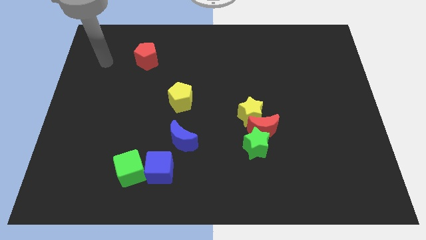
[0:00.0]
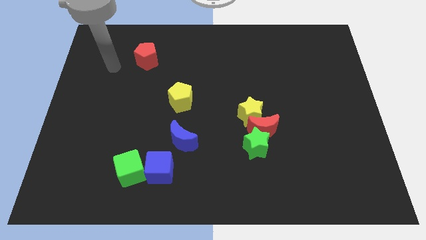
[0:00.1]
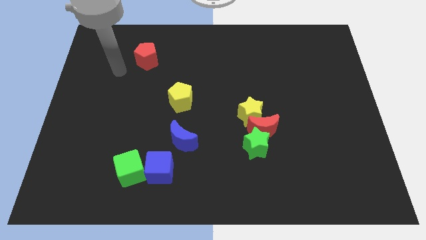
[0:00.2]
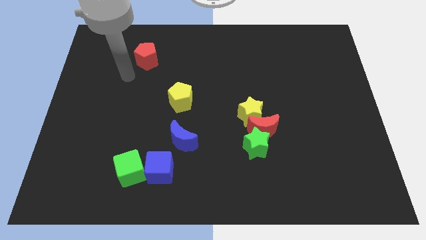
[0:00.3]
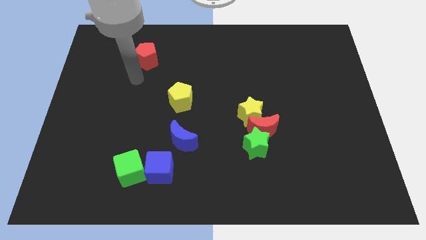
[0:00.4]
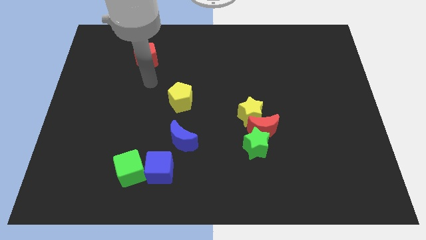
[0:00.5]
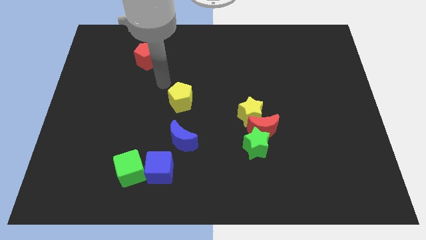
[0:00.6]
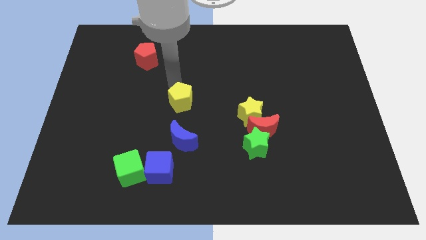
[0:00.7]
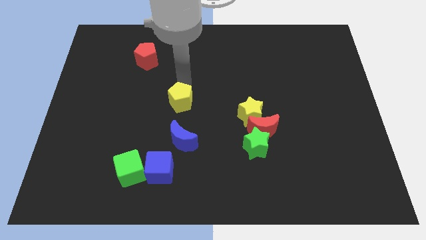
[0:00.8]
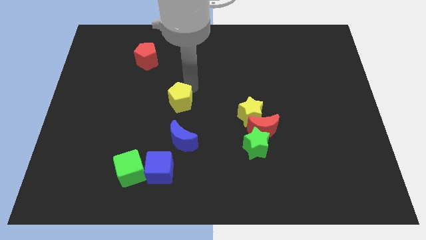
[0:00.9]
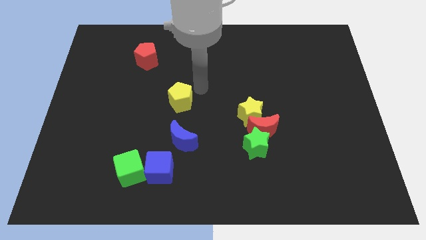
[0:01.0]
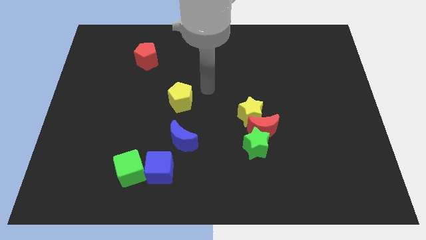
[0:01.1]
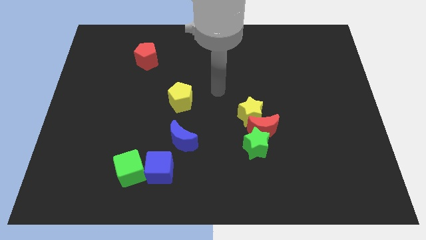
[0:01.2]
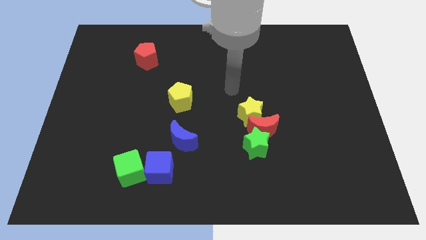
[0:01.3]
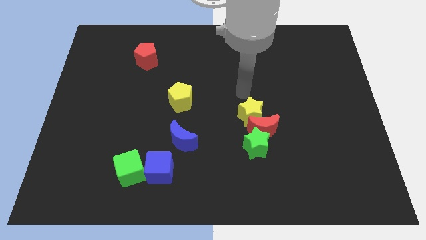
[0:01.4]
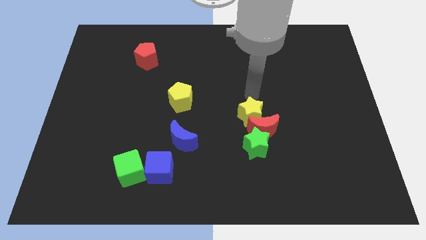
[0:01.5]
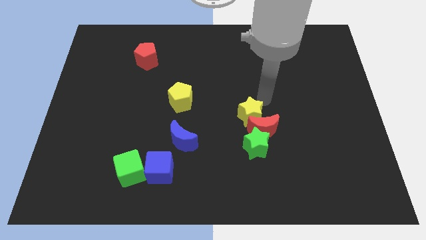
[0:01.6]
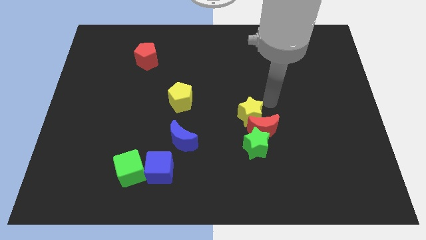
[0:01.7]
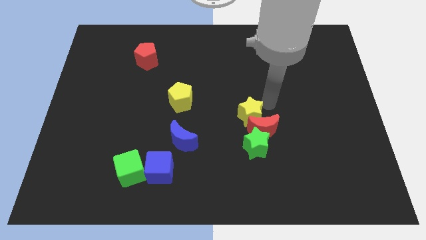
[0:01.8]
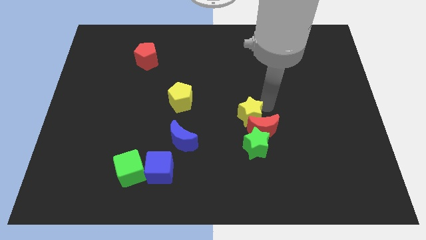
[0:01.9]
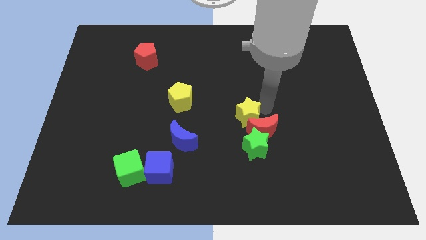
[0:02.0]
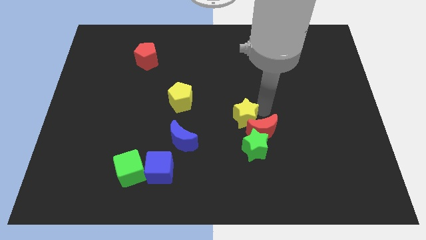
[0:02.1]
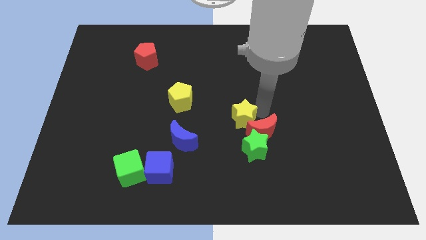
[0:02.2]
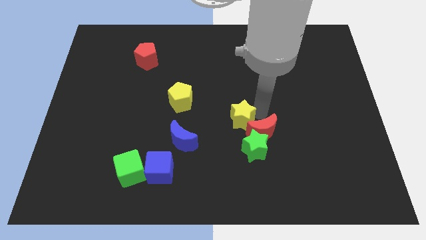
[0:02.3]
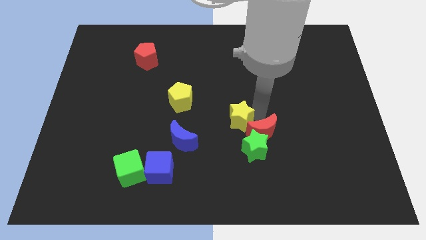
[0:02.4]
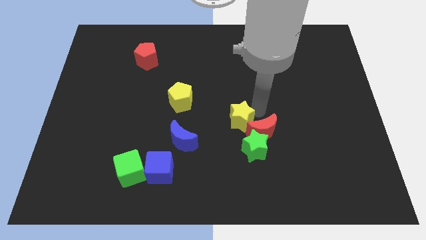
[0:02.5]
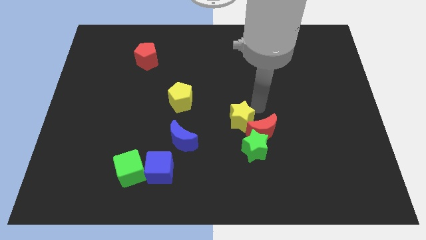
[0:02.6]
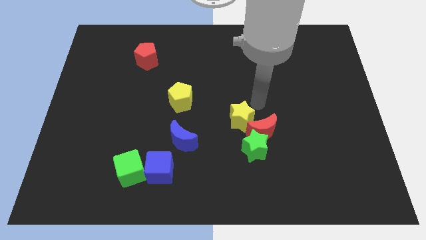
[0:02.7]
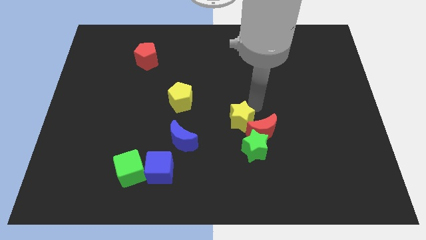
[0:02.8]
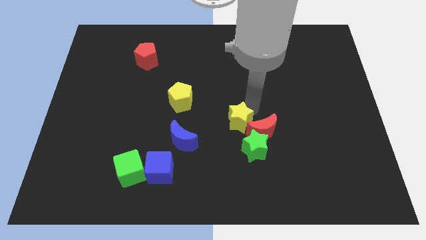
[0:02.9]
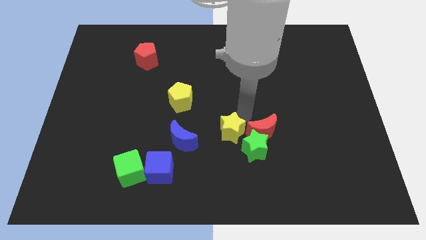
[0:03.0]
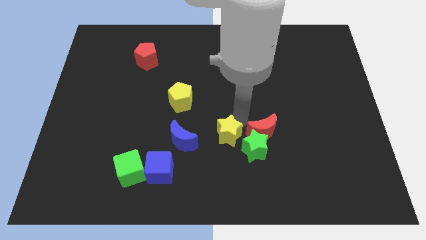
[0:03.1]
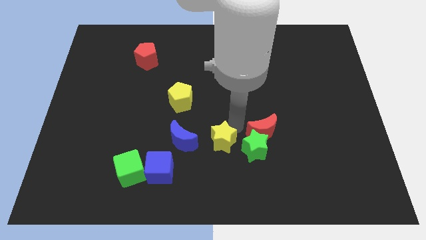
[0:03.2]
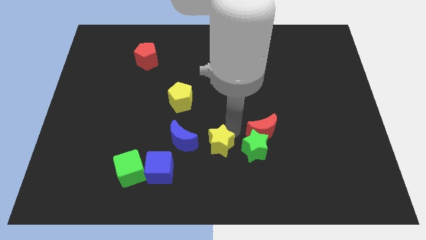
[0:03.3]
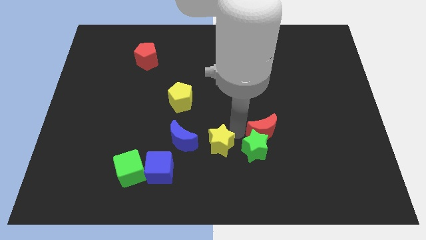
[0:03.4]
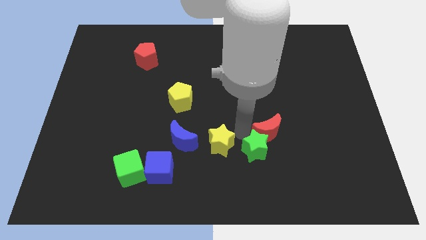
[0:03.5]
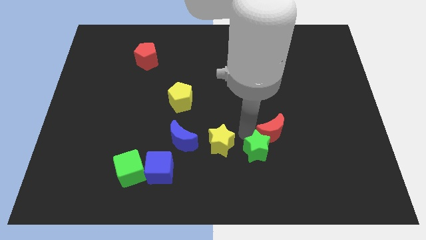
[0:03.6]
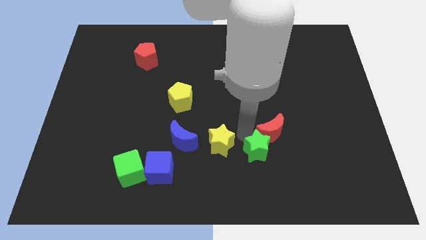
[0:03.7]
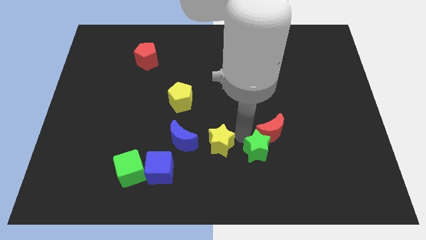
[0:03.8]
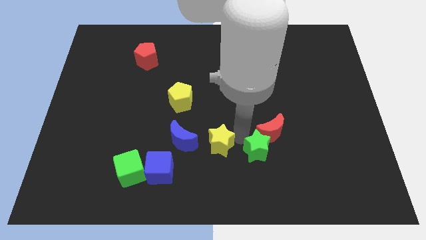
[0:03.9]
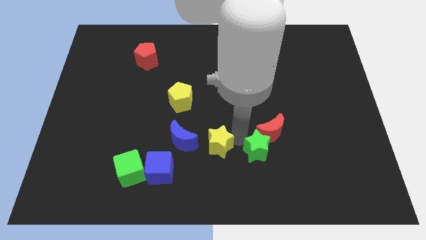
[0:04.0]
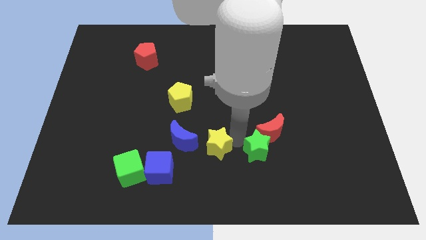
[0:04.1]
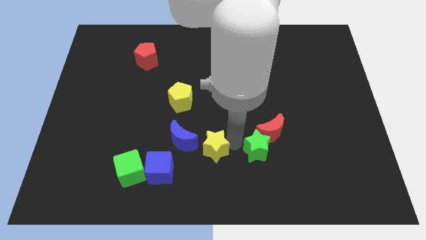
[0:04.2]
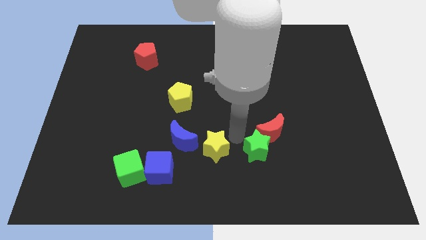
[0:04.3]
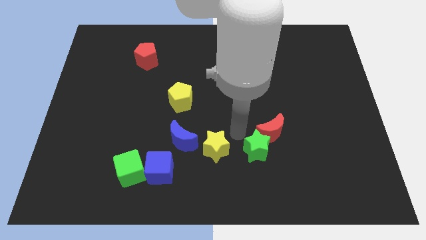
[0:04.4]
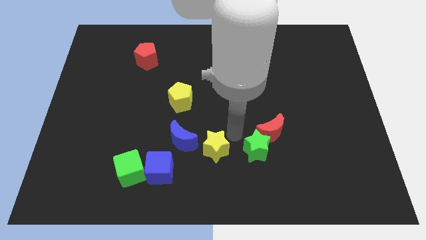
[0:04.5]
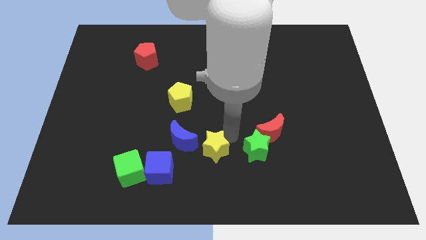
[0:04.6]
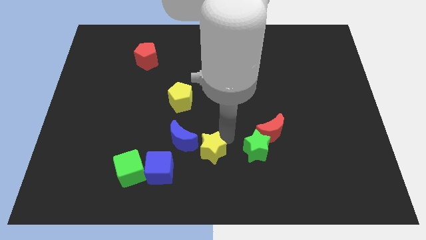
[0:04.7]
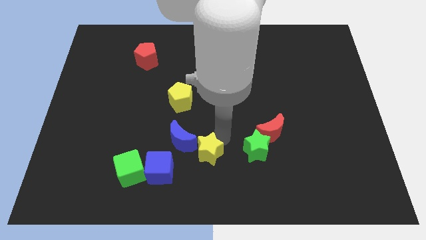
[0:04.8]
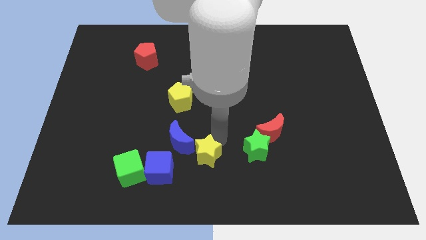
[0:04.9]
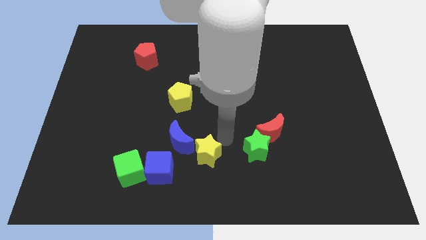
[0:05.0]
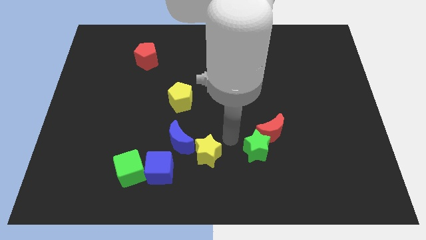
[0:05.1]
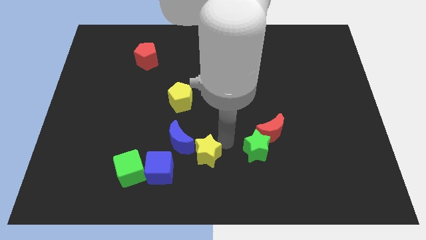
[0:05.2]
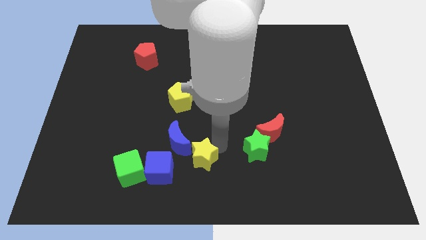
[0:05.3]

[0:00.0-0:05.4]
push the yellow star right of the green cube

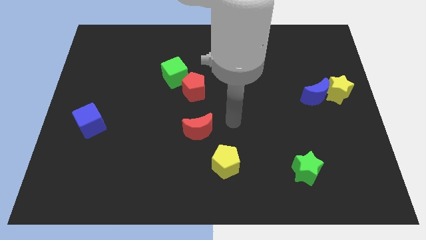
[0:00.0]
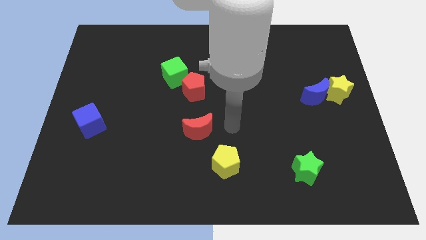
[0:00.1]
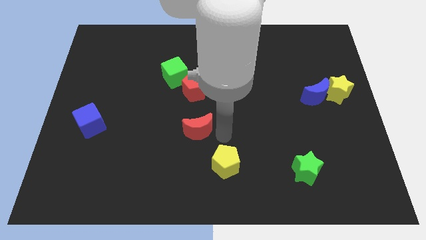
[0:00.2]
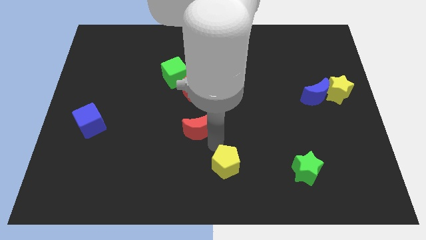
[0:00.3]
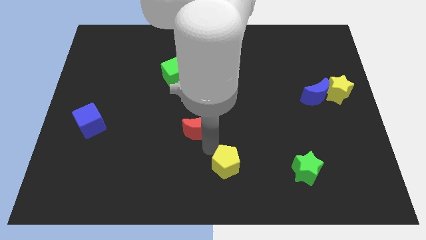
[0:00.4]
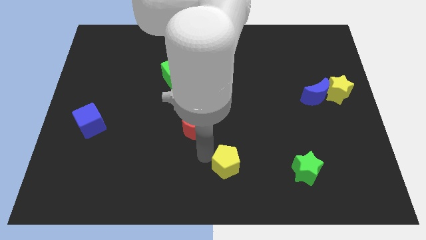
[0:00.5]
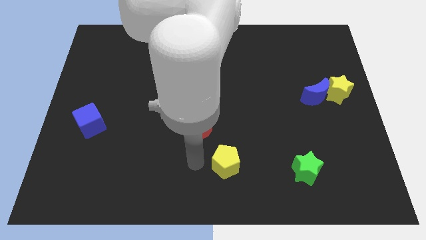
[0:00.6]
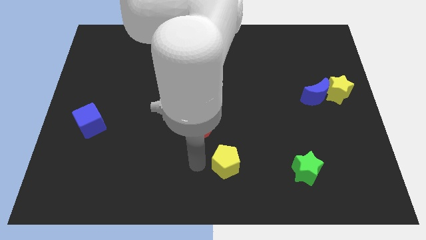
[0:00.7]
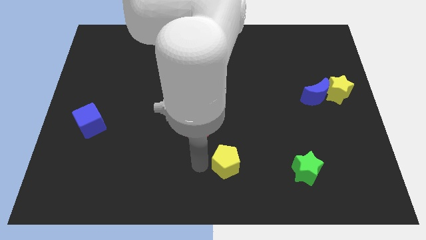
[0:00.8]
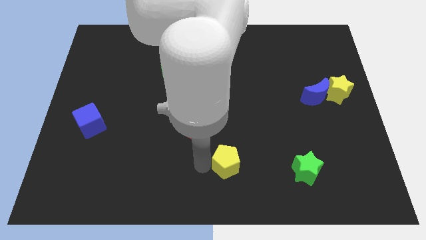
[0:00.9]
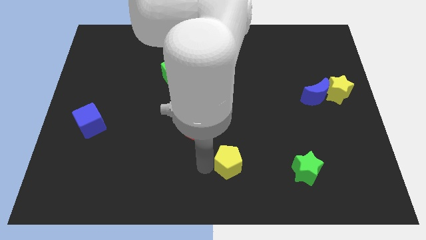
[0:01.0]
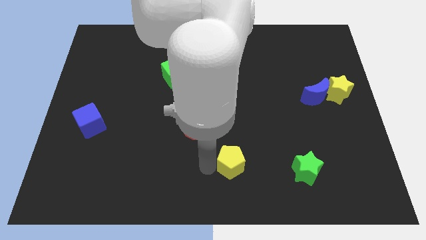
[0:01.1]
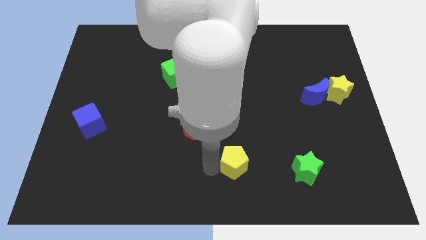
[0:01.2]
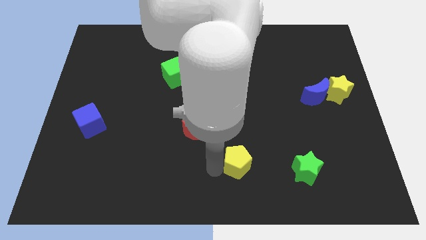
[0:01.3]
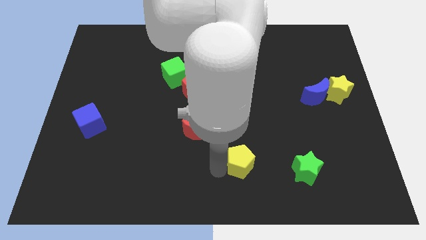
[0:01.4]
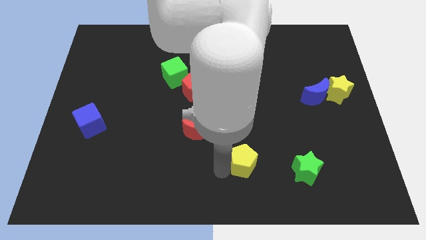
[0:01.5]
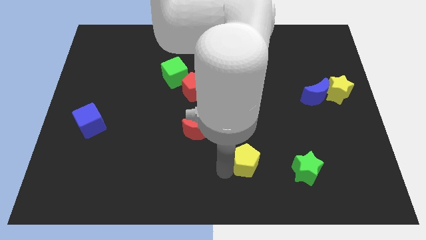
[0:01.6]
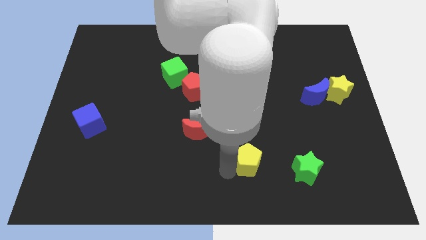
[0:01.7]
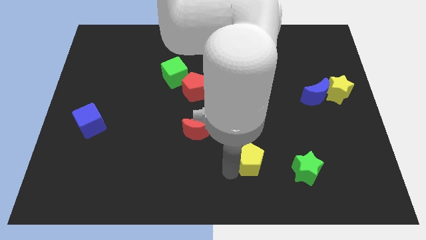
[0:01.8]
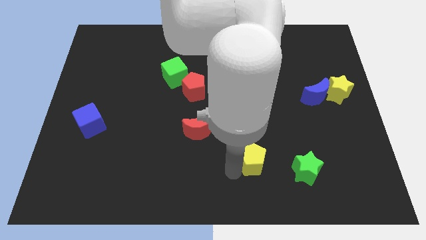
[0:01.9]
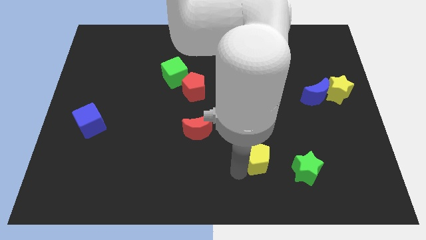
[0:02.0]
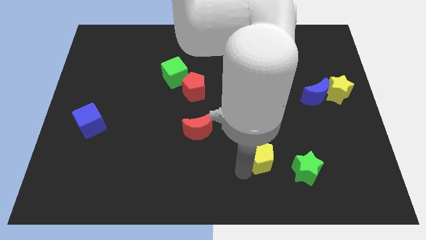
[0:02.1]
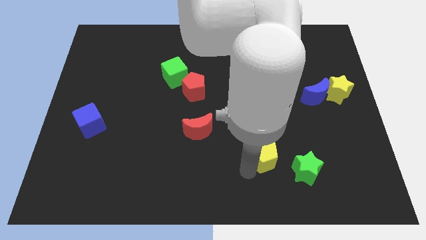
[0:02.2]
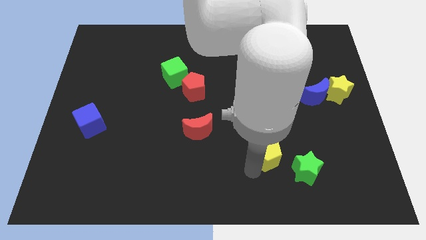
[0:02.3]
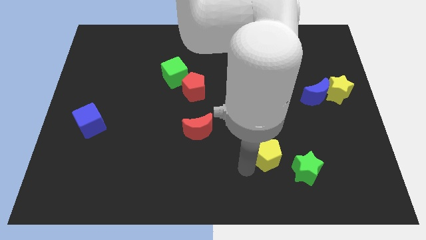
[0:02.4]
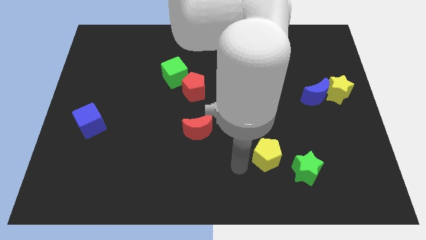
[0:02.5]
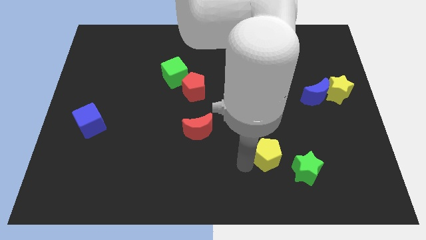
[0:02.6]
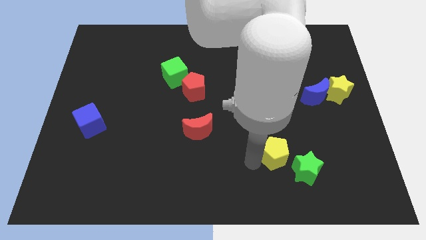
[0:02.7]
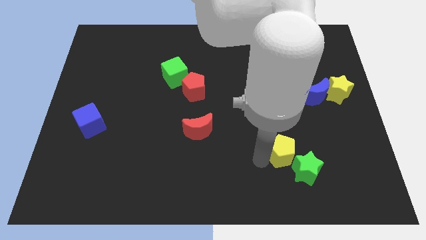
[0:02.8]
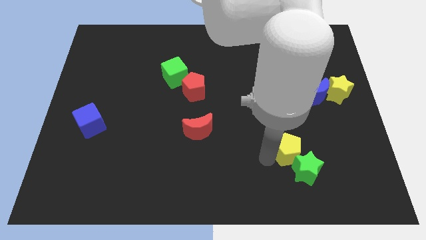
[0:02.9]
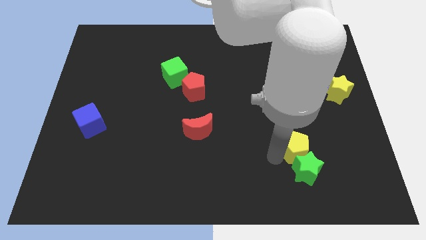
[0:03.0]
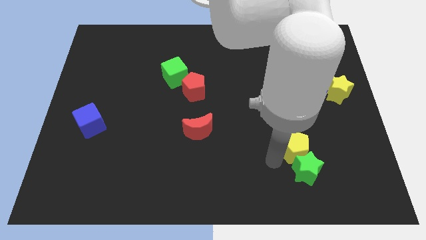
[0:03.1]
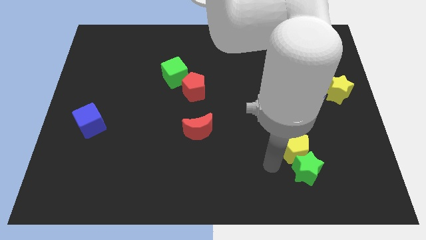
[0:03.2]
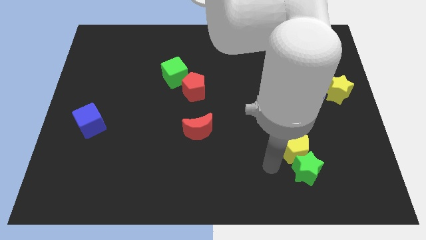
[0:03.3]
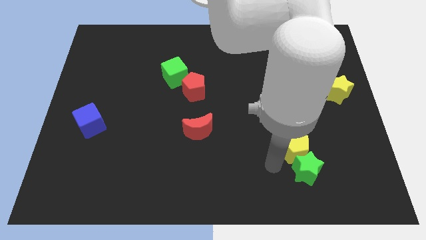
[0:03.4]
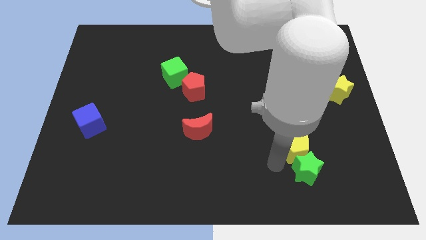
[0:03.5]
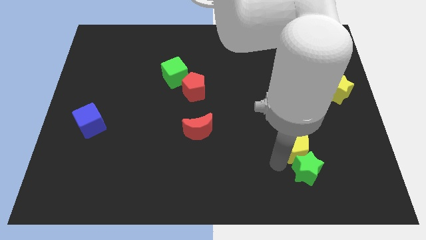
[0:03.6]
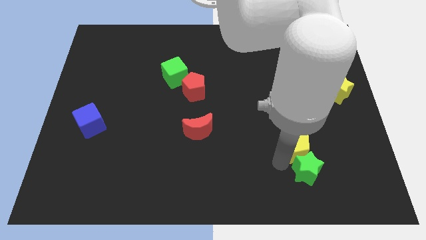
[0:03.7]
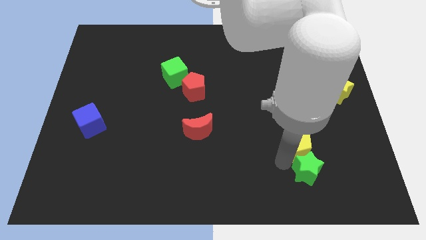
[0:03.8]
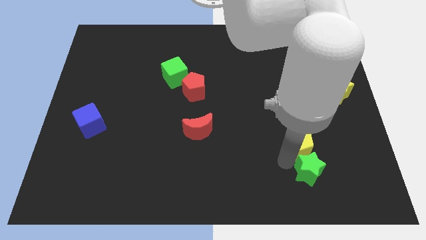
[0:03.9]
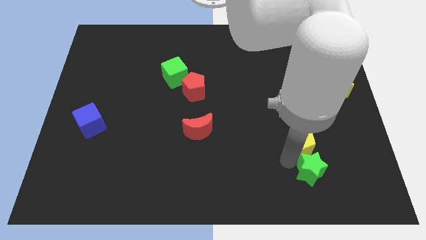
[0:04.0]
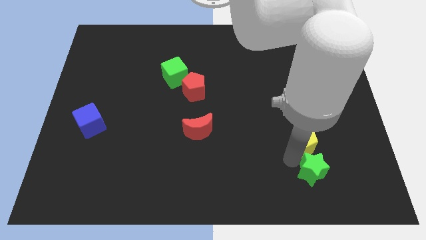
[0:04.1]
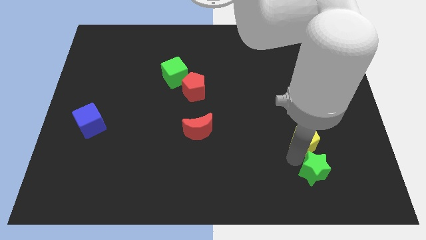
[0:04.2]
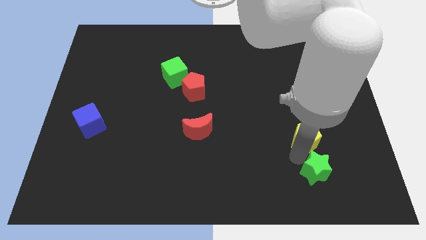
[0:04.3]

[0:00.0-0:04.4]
push the yellow pentagon below the blue moon
